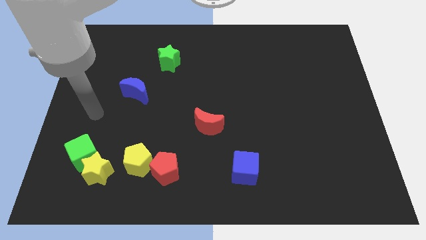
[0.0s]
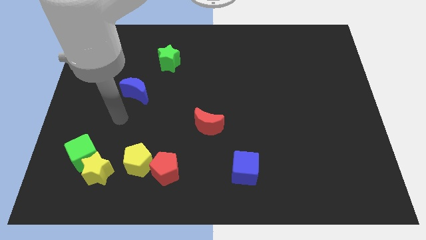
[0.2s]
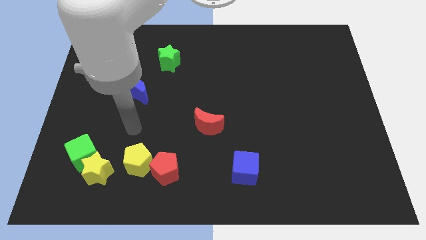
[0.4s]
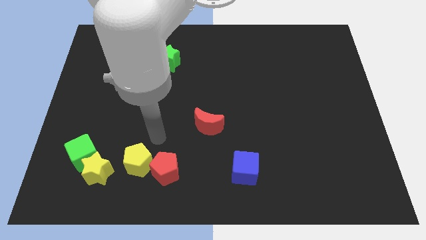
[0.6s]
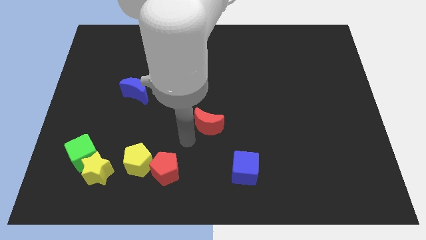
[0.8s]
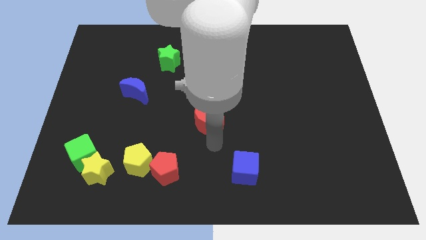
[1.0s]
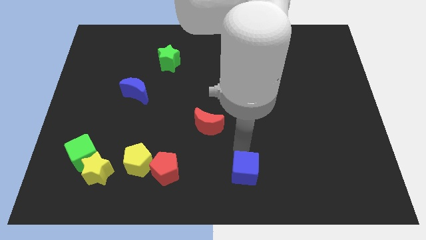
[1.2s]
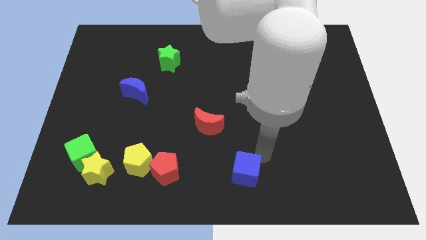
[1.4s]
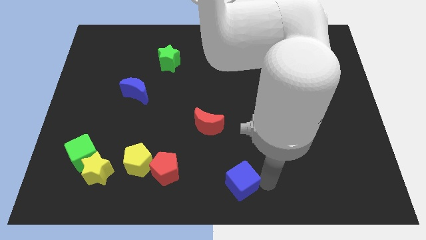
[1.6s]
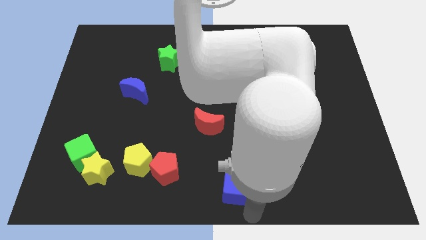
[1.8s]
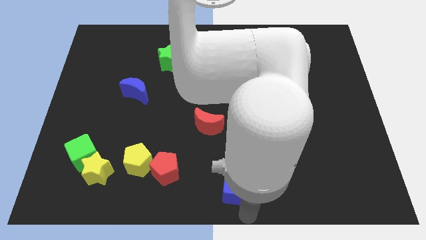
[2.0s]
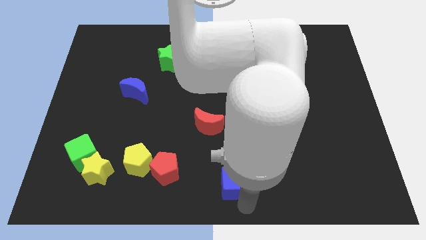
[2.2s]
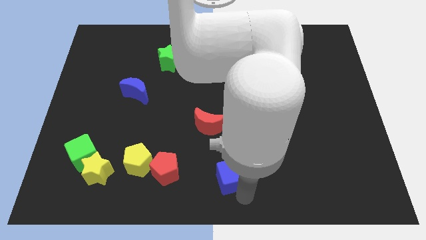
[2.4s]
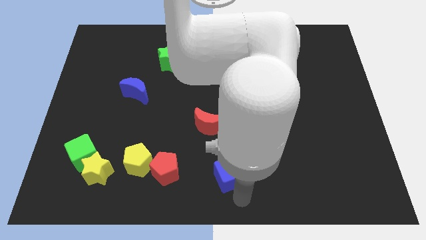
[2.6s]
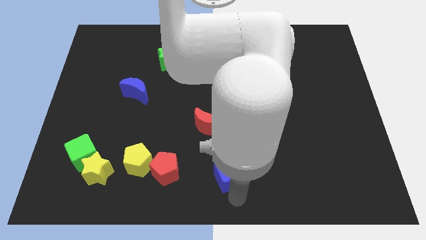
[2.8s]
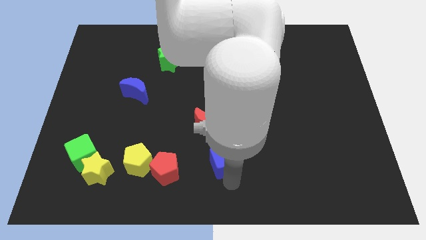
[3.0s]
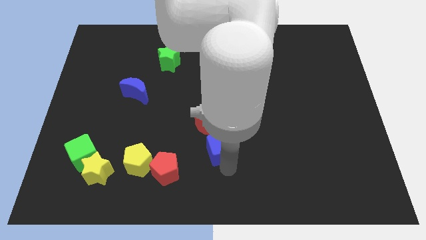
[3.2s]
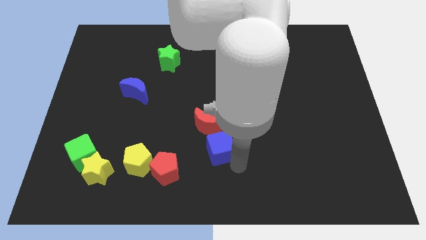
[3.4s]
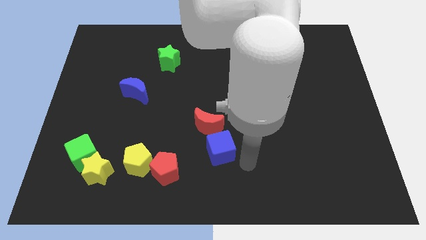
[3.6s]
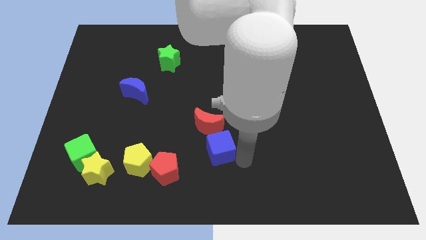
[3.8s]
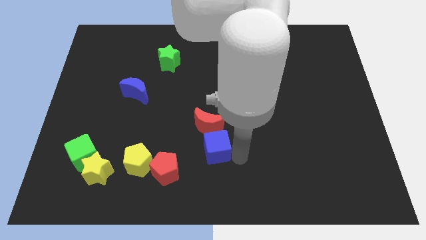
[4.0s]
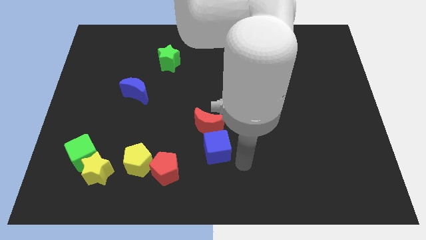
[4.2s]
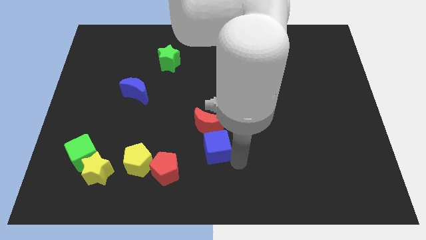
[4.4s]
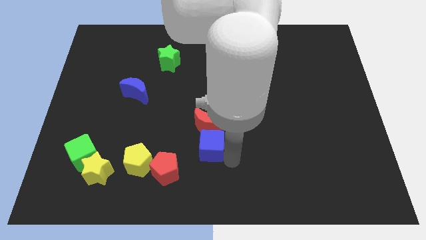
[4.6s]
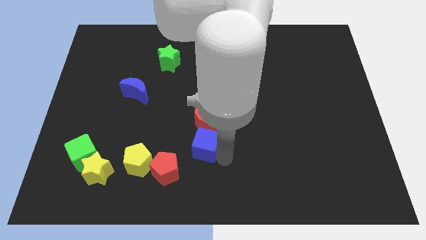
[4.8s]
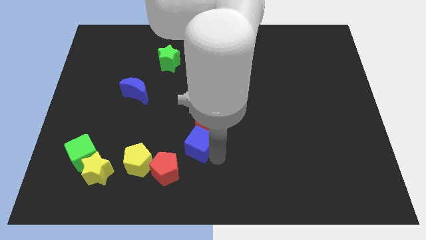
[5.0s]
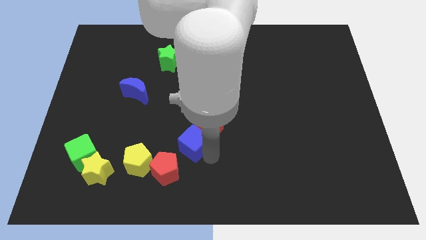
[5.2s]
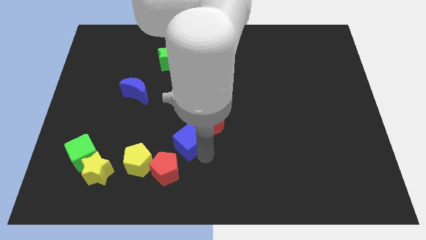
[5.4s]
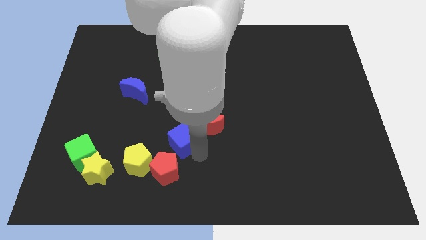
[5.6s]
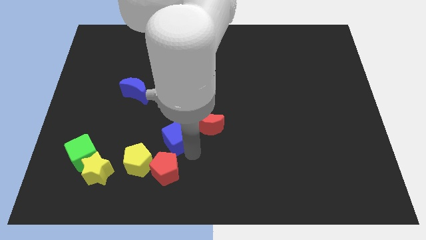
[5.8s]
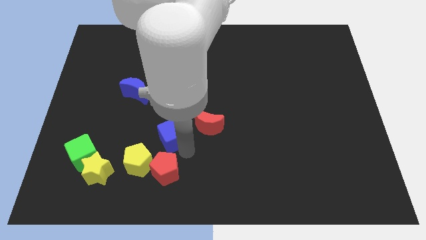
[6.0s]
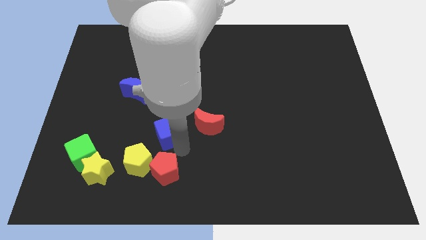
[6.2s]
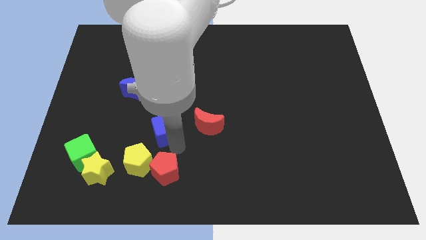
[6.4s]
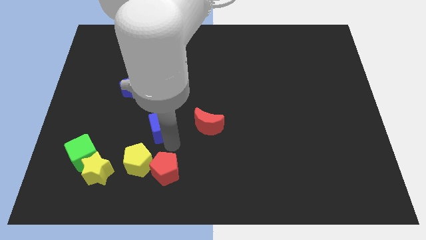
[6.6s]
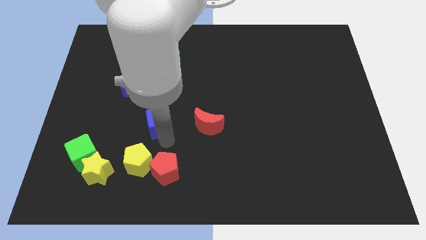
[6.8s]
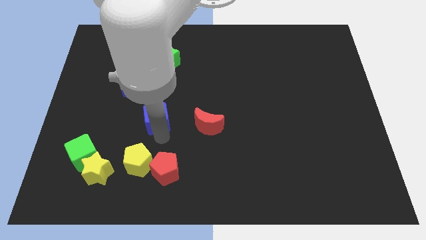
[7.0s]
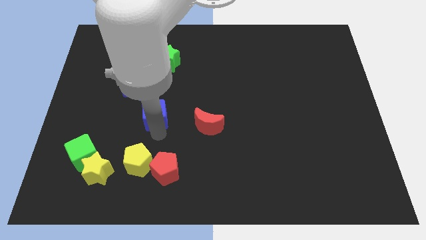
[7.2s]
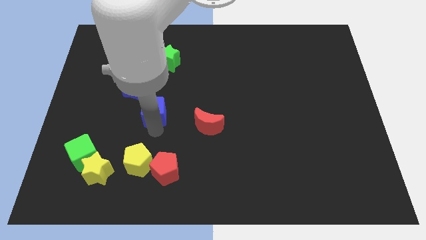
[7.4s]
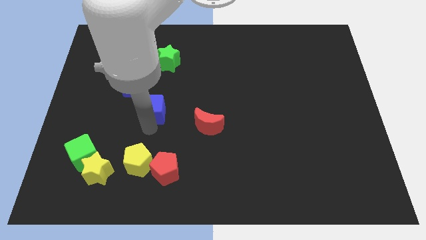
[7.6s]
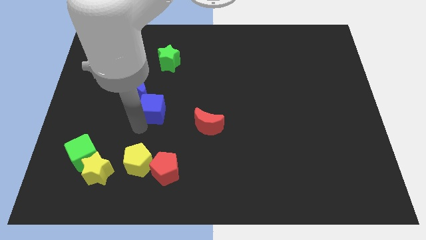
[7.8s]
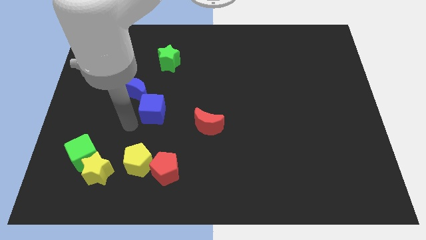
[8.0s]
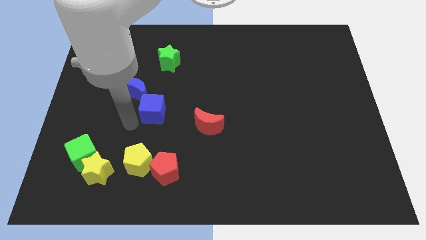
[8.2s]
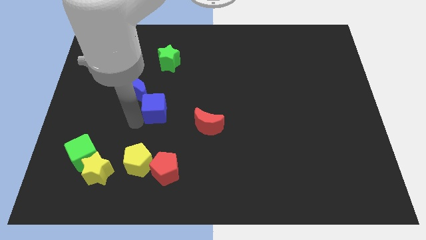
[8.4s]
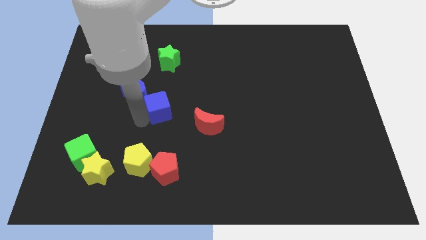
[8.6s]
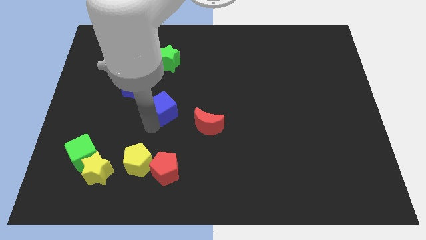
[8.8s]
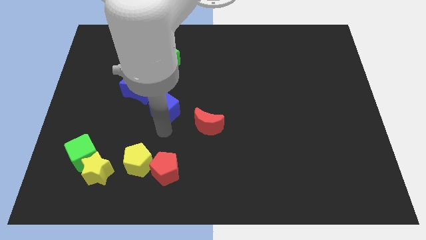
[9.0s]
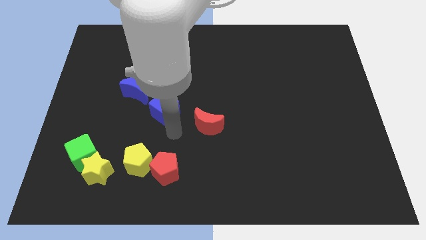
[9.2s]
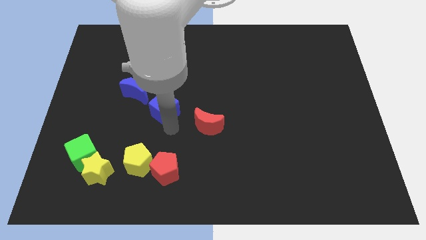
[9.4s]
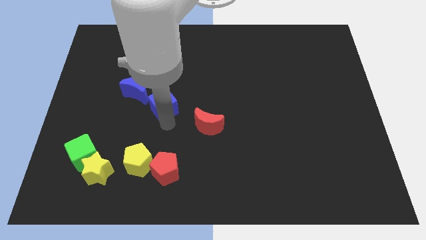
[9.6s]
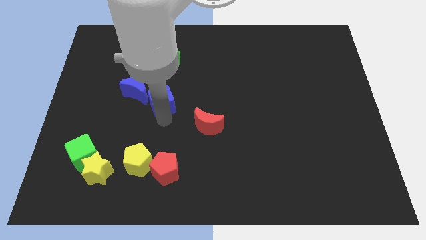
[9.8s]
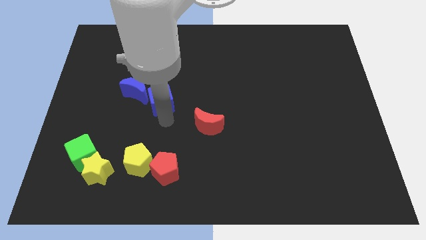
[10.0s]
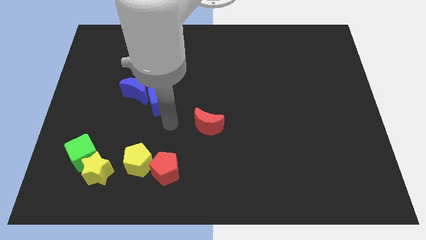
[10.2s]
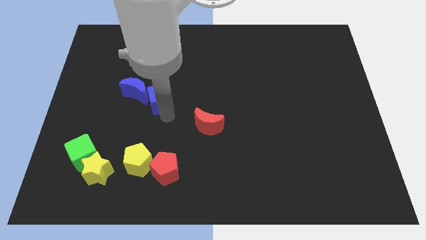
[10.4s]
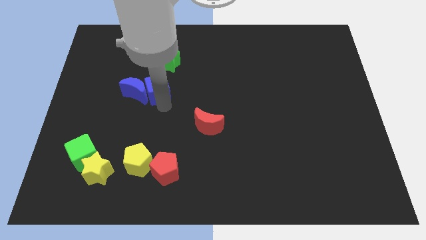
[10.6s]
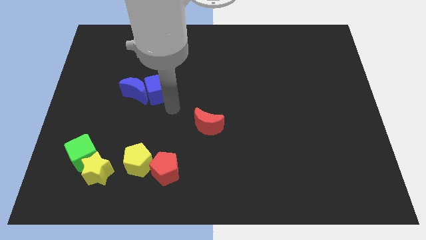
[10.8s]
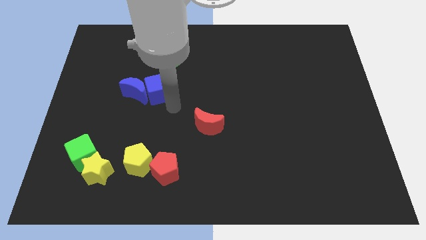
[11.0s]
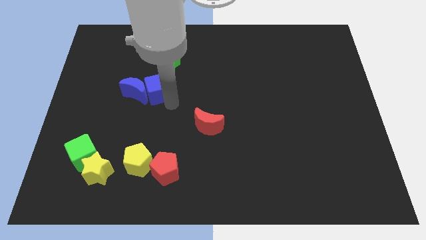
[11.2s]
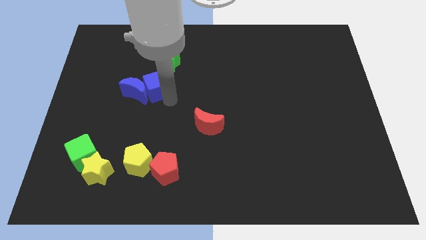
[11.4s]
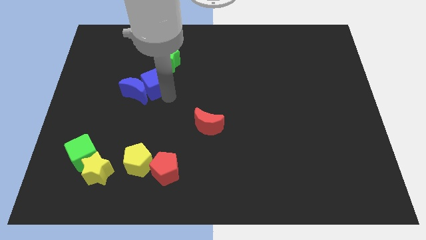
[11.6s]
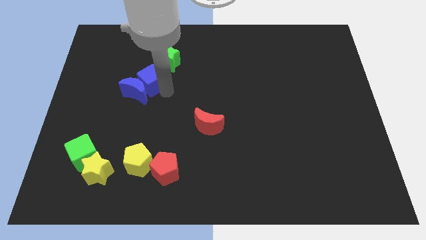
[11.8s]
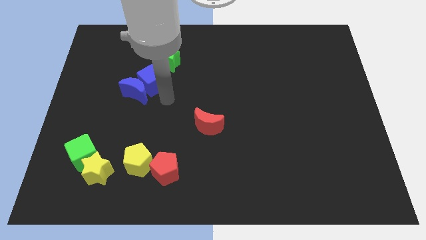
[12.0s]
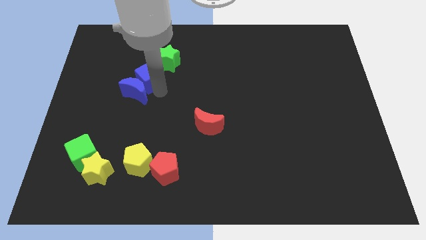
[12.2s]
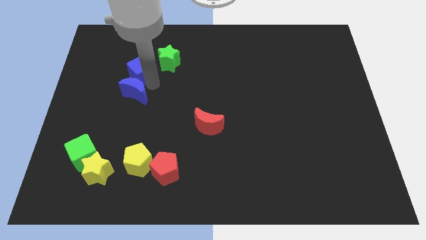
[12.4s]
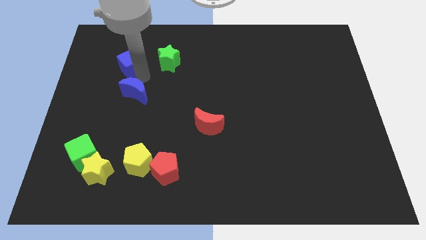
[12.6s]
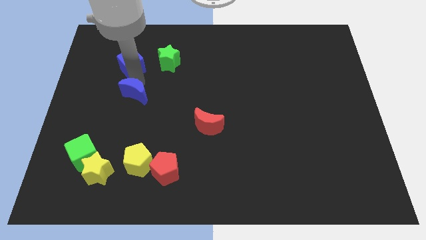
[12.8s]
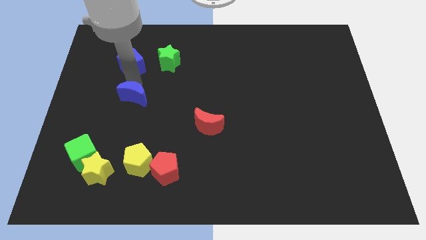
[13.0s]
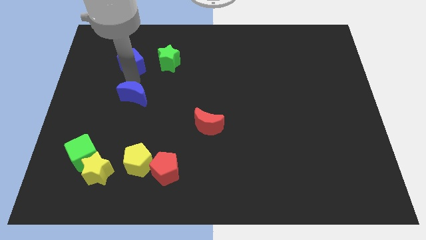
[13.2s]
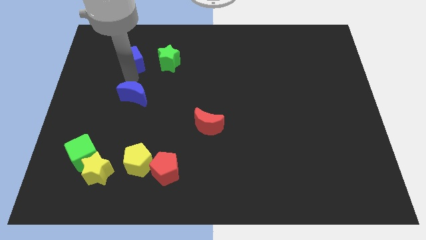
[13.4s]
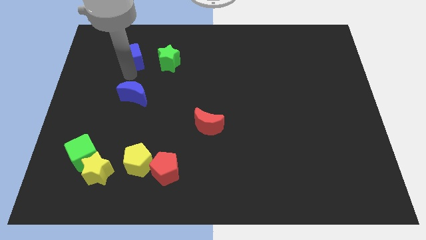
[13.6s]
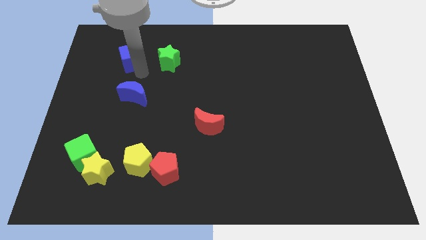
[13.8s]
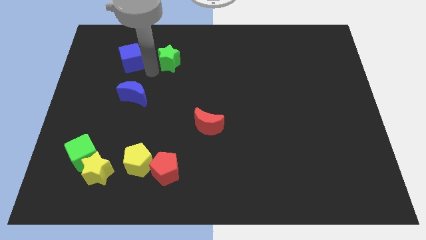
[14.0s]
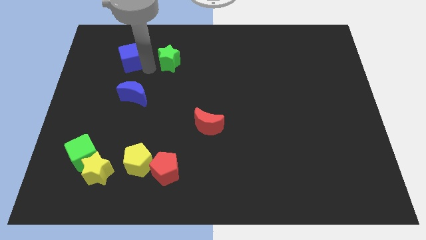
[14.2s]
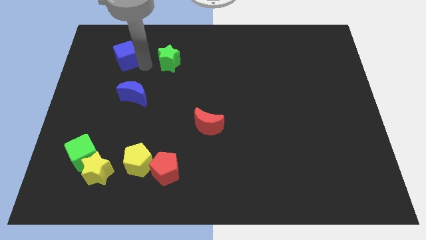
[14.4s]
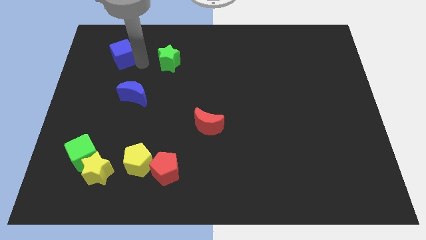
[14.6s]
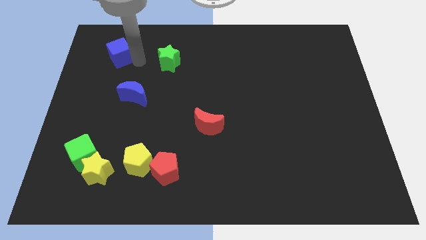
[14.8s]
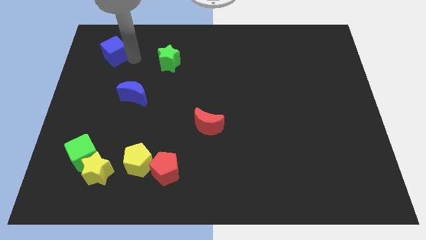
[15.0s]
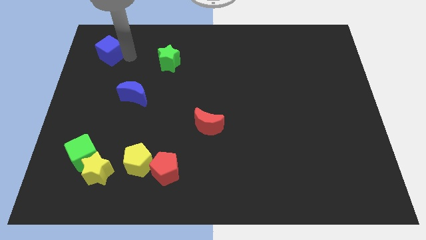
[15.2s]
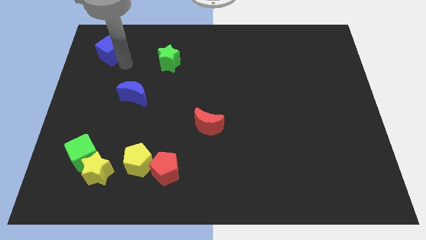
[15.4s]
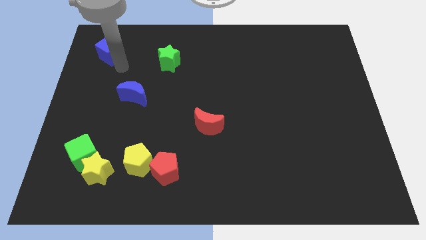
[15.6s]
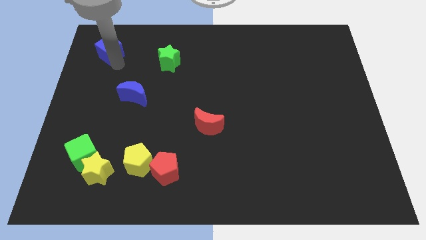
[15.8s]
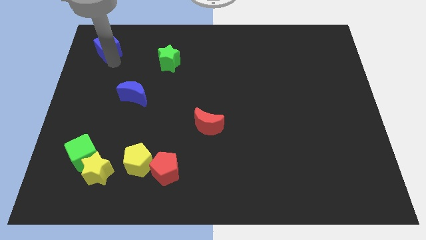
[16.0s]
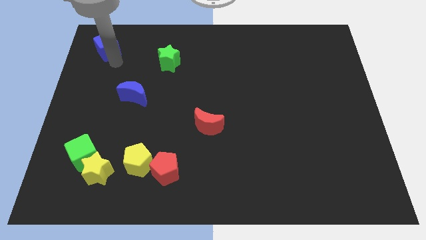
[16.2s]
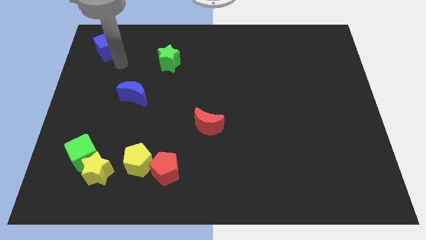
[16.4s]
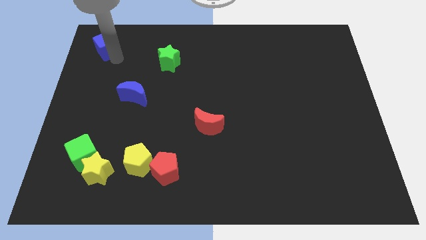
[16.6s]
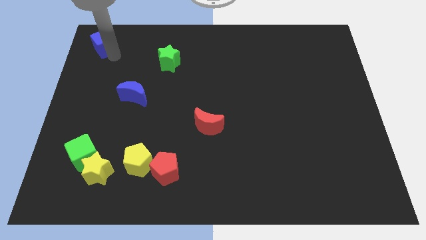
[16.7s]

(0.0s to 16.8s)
put the blue cube to the upper left corner
